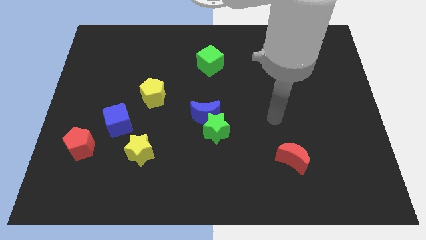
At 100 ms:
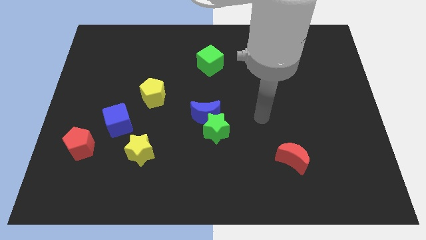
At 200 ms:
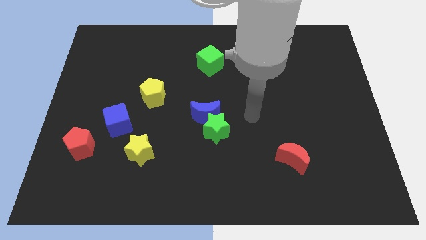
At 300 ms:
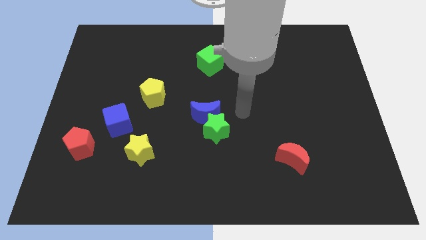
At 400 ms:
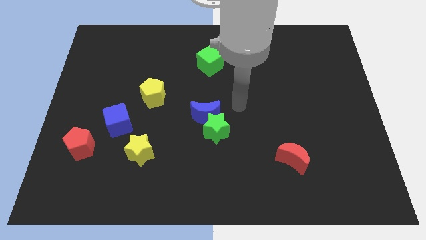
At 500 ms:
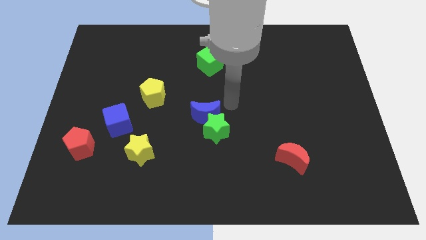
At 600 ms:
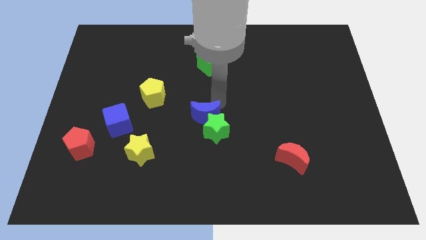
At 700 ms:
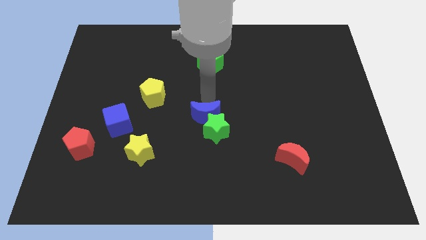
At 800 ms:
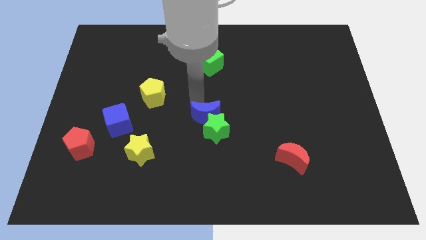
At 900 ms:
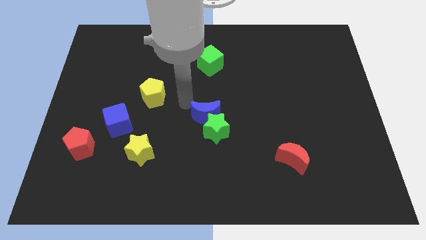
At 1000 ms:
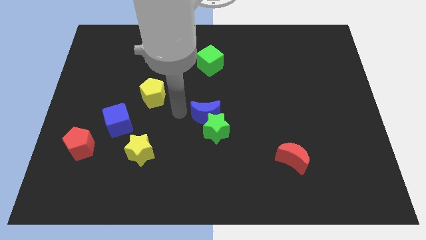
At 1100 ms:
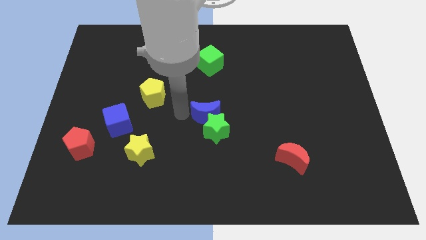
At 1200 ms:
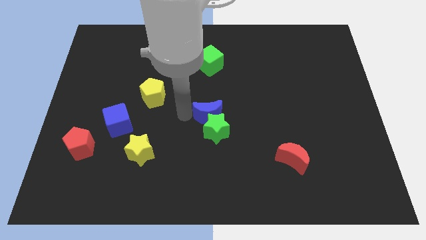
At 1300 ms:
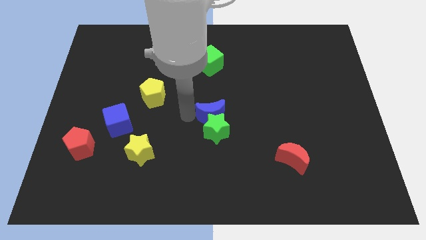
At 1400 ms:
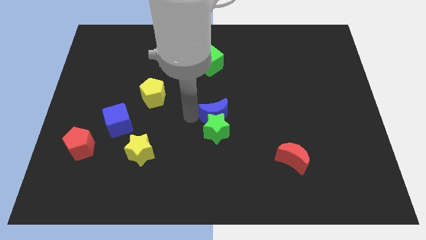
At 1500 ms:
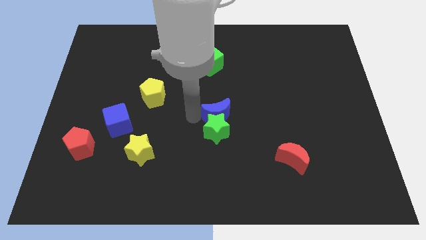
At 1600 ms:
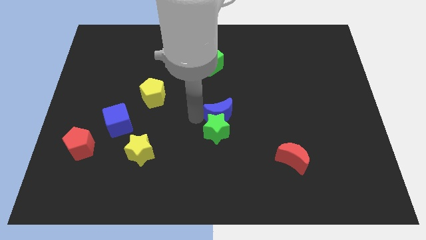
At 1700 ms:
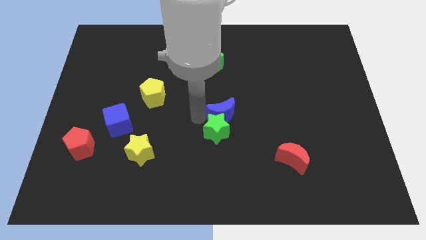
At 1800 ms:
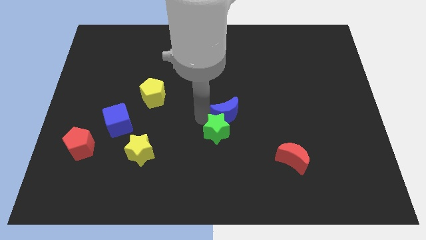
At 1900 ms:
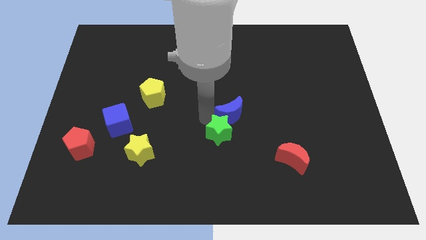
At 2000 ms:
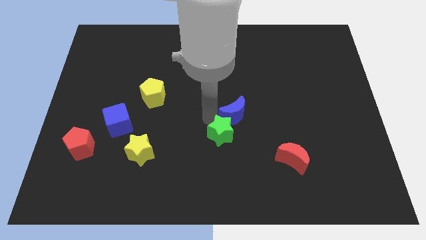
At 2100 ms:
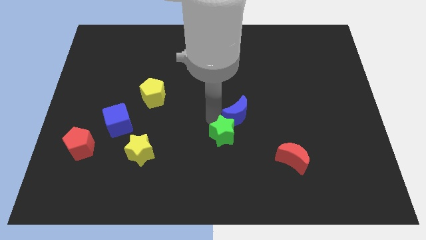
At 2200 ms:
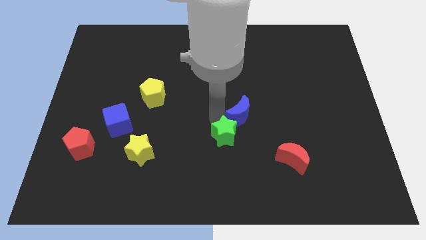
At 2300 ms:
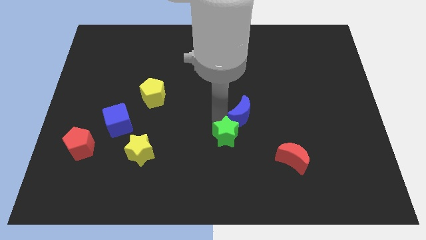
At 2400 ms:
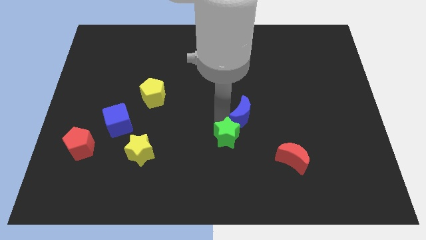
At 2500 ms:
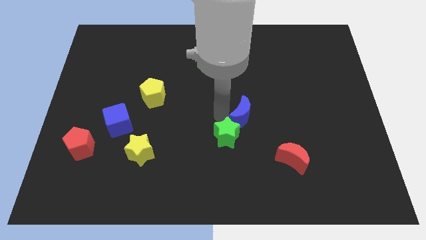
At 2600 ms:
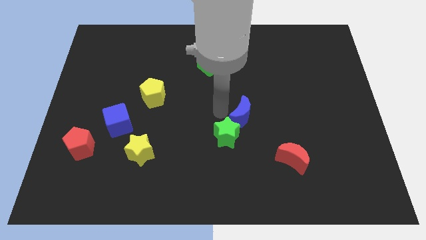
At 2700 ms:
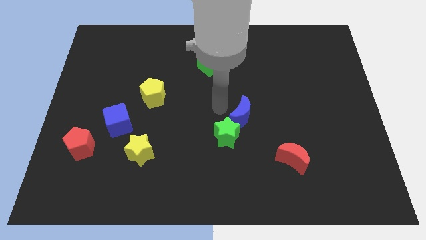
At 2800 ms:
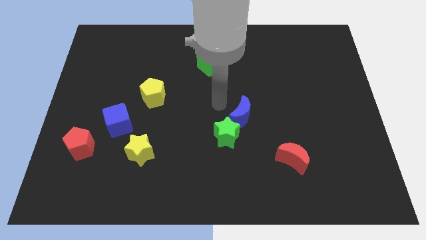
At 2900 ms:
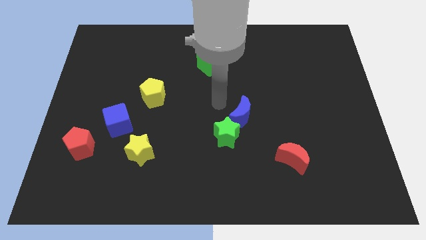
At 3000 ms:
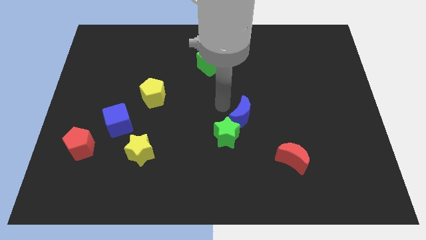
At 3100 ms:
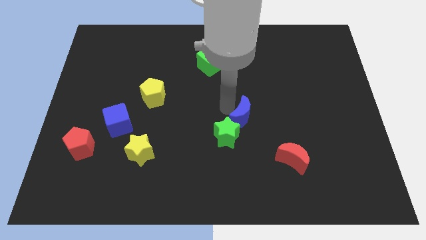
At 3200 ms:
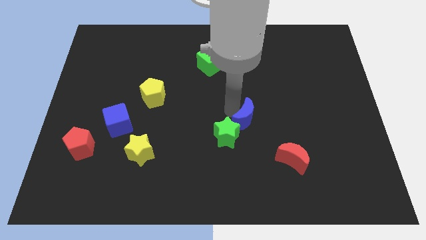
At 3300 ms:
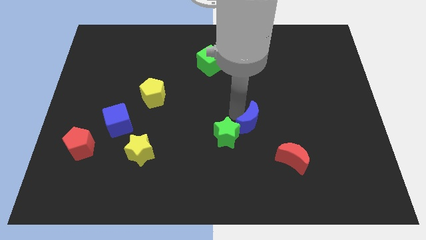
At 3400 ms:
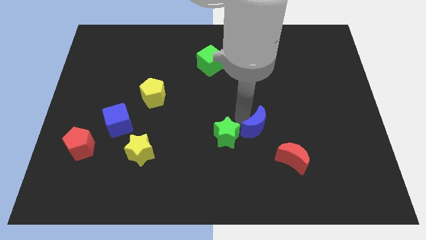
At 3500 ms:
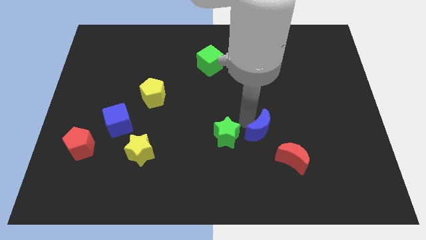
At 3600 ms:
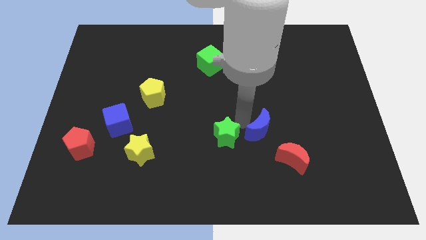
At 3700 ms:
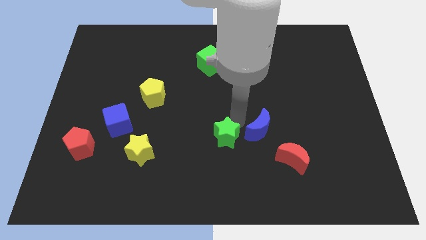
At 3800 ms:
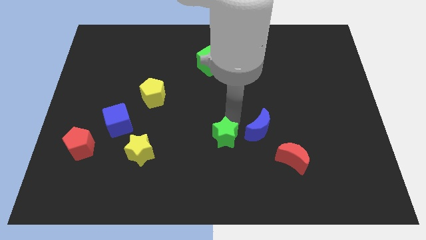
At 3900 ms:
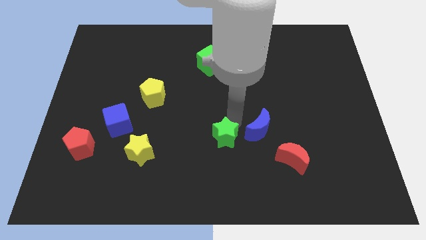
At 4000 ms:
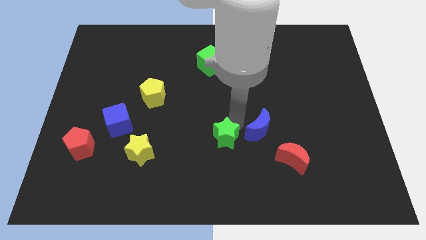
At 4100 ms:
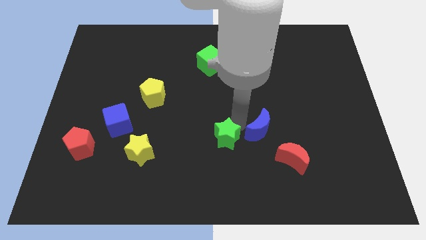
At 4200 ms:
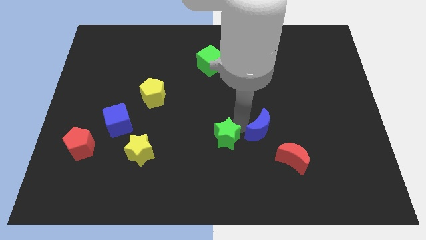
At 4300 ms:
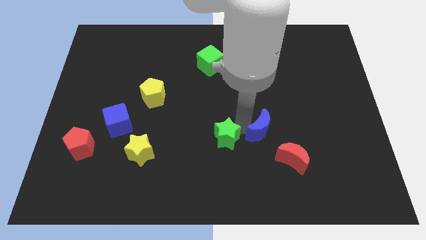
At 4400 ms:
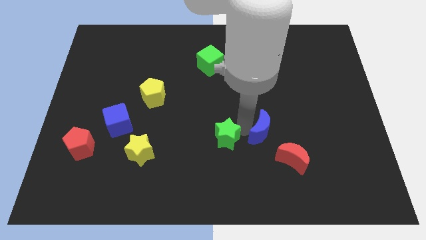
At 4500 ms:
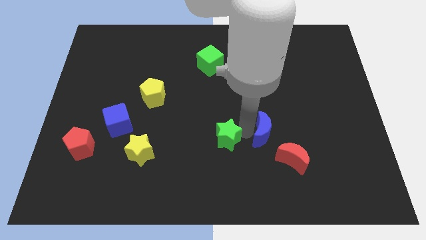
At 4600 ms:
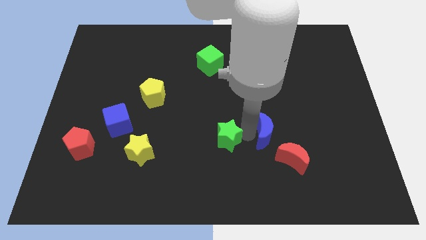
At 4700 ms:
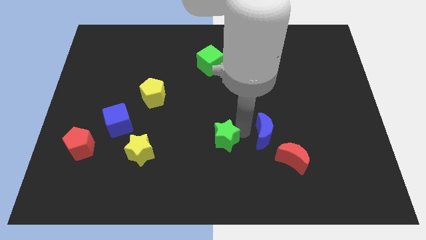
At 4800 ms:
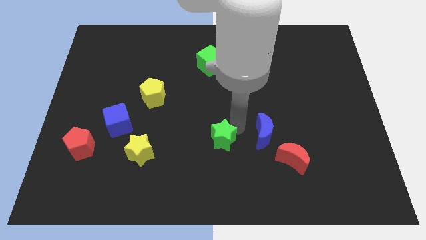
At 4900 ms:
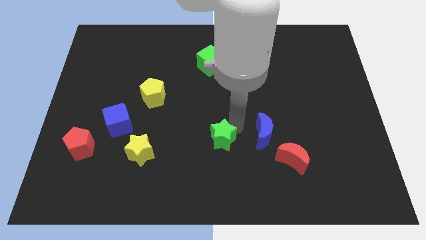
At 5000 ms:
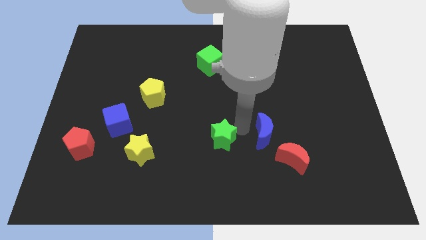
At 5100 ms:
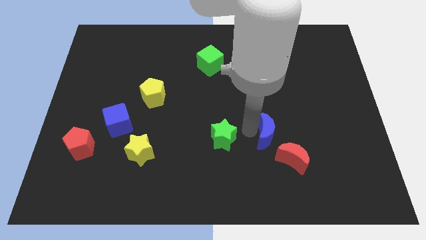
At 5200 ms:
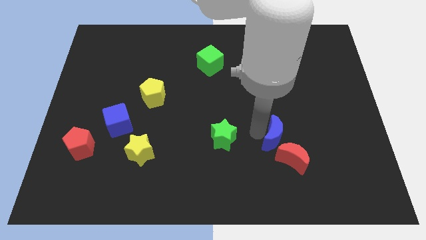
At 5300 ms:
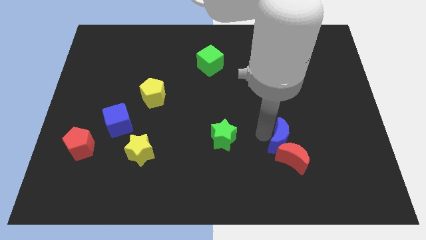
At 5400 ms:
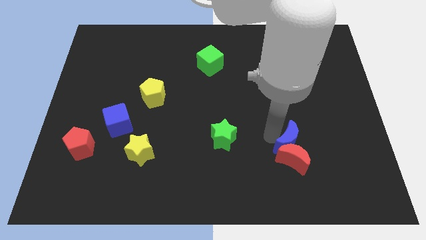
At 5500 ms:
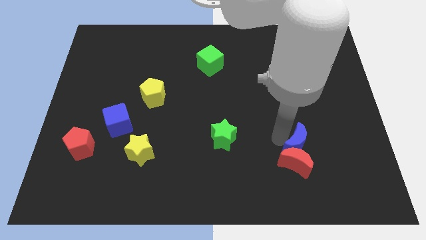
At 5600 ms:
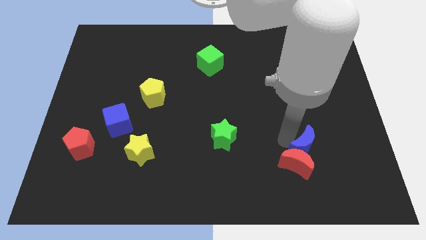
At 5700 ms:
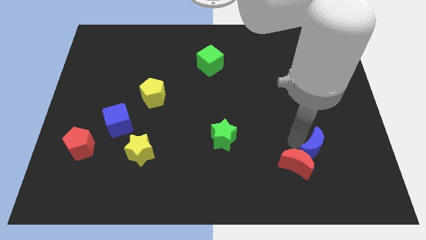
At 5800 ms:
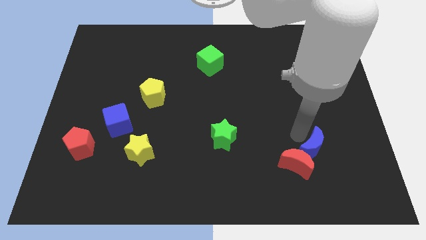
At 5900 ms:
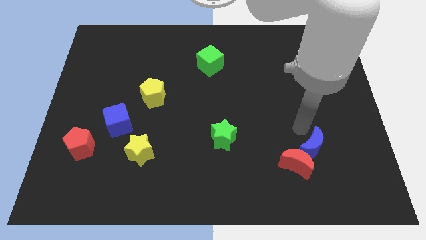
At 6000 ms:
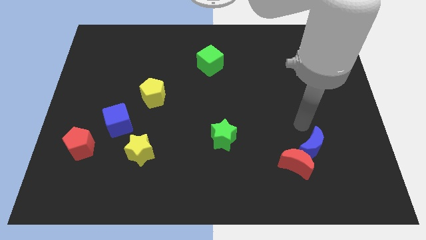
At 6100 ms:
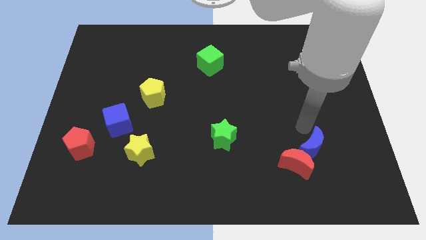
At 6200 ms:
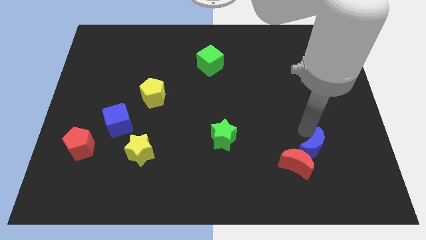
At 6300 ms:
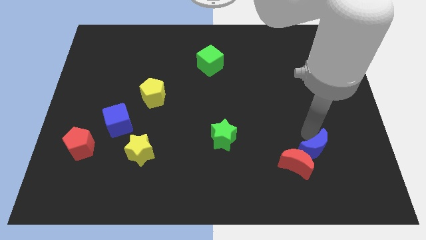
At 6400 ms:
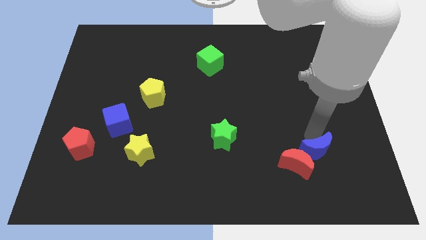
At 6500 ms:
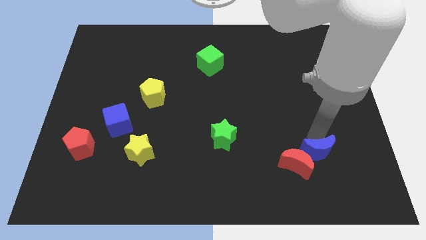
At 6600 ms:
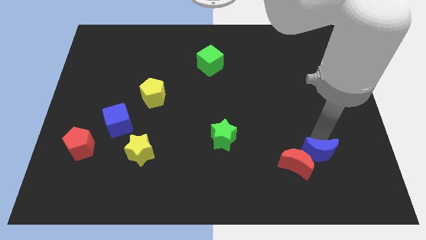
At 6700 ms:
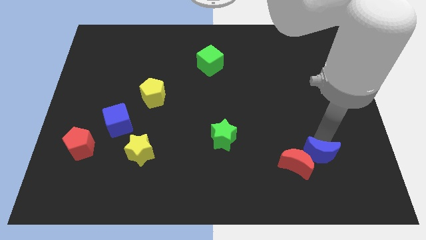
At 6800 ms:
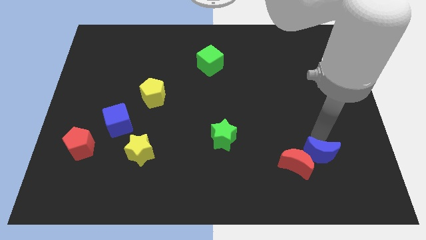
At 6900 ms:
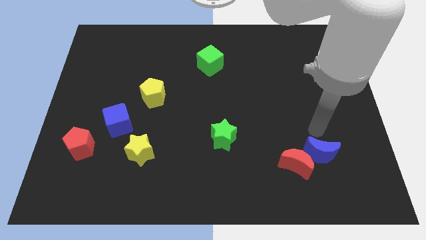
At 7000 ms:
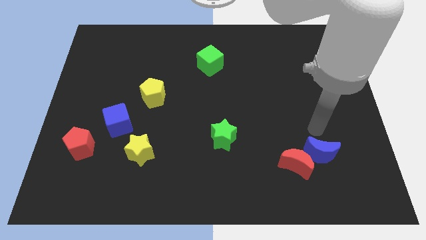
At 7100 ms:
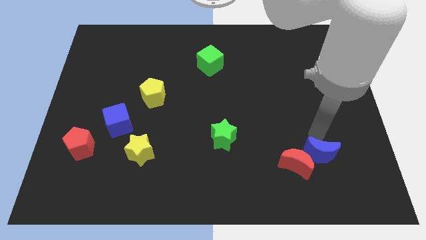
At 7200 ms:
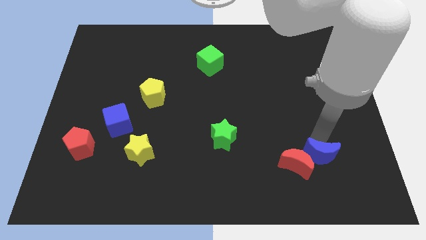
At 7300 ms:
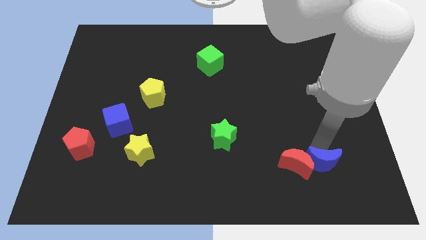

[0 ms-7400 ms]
put the blue moon to the bottom right side of the red moon
